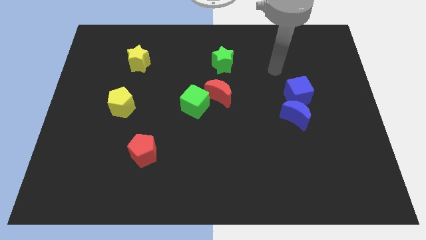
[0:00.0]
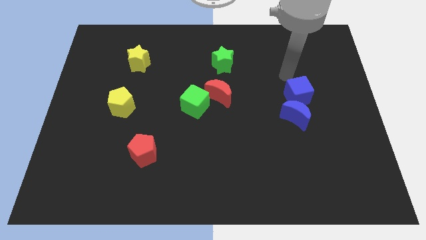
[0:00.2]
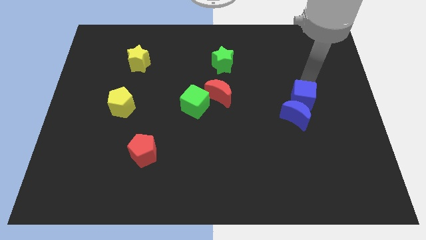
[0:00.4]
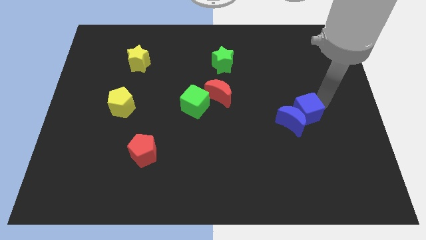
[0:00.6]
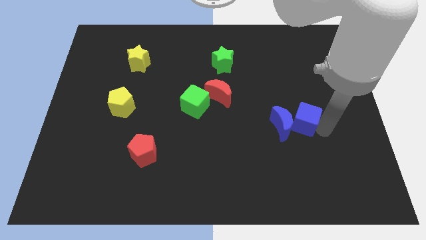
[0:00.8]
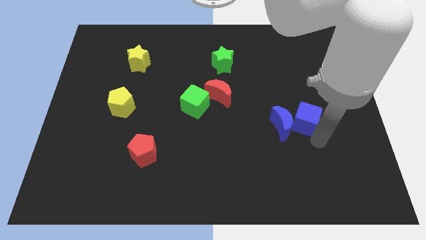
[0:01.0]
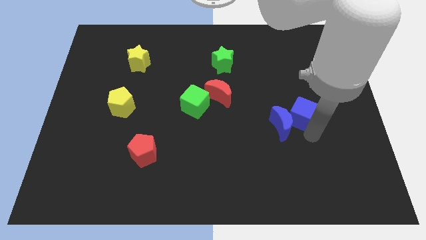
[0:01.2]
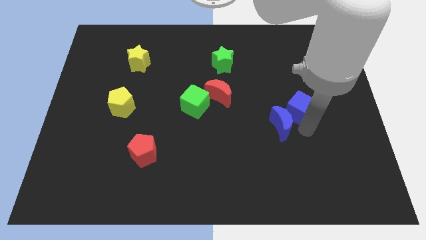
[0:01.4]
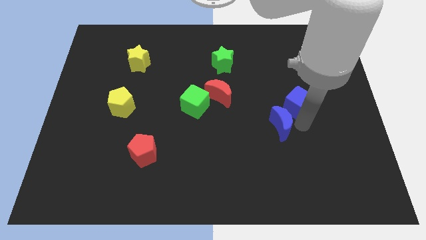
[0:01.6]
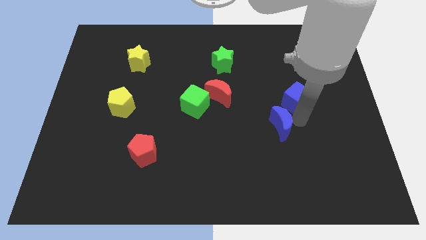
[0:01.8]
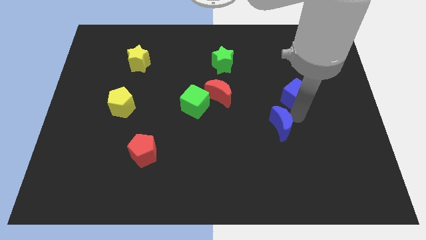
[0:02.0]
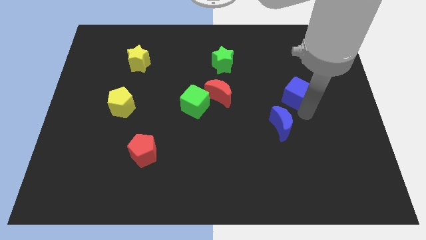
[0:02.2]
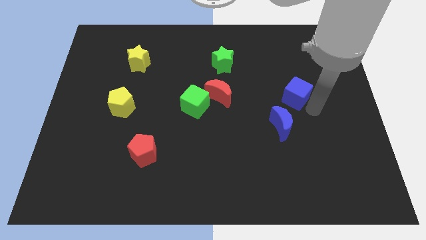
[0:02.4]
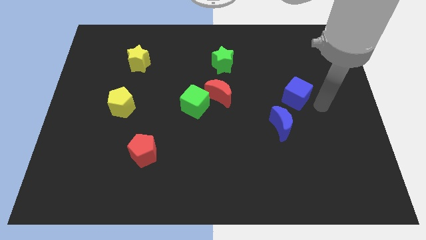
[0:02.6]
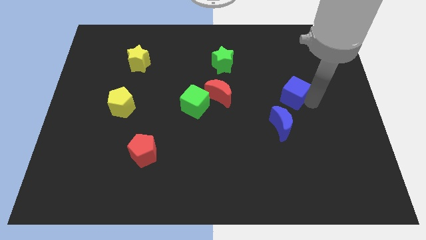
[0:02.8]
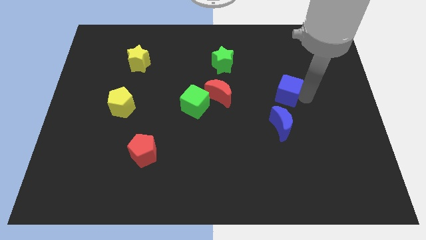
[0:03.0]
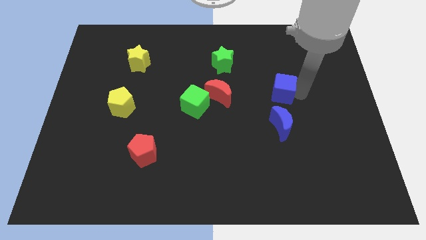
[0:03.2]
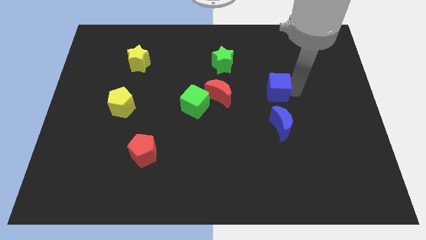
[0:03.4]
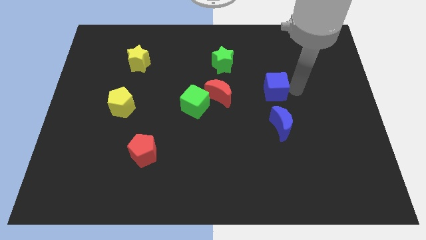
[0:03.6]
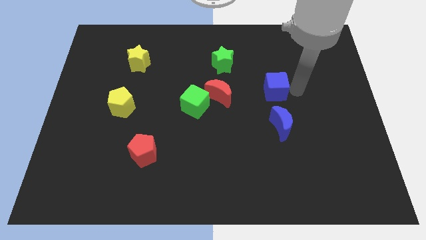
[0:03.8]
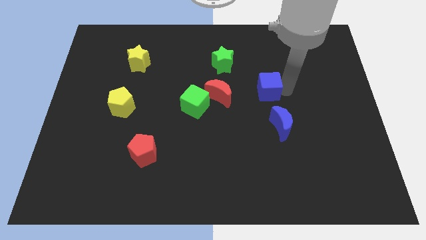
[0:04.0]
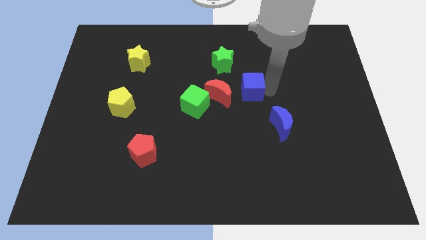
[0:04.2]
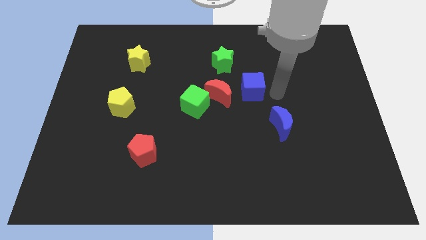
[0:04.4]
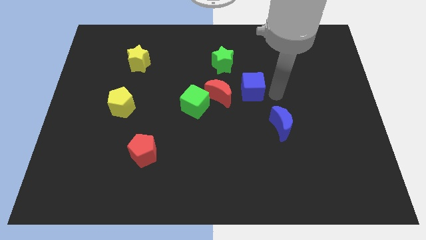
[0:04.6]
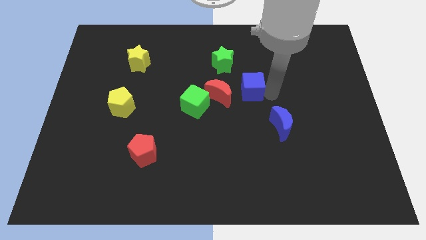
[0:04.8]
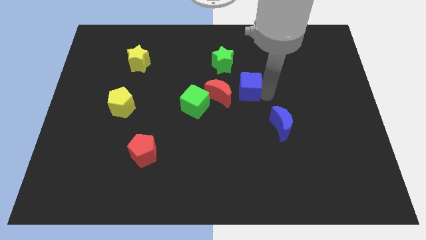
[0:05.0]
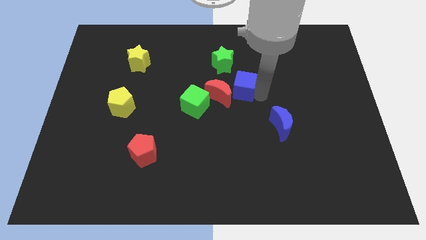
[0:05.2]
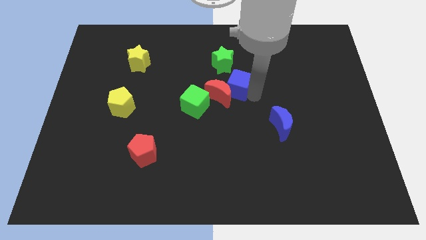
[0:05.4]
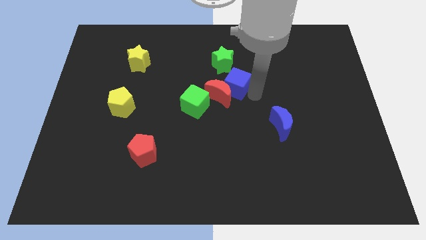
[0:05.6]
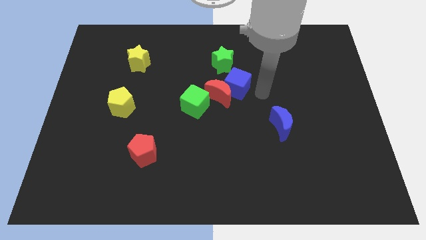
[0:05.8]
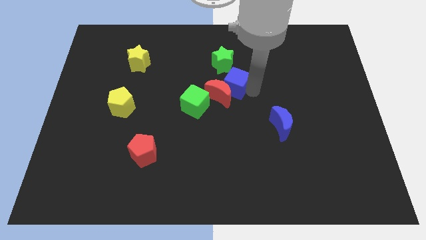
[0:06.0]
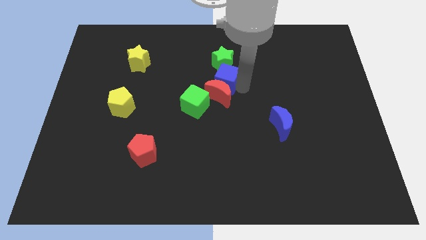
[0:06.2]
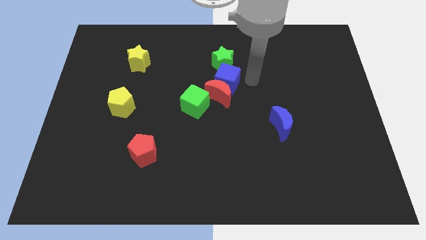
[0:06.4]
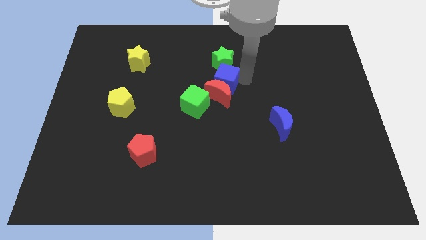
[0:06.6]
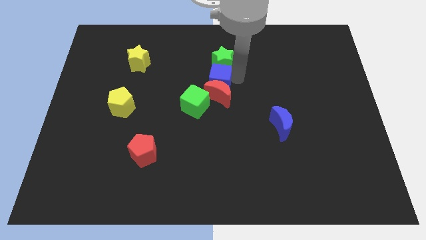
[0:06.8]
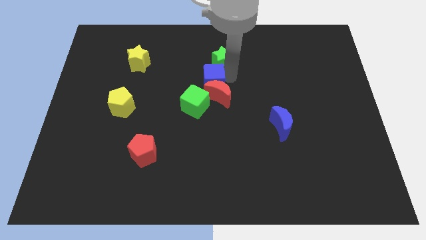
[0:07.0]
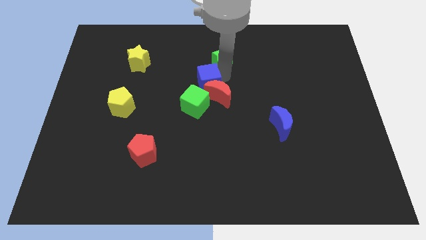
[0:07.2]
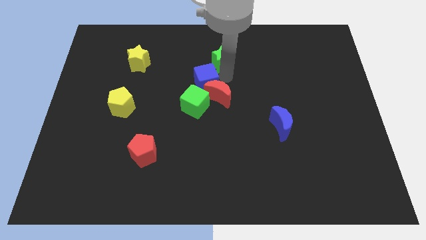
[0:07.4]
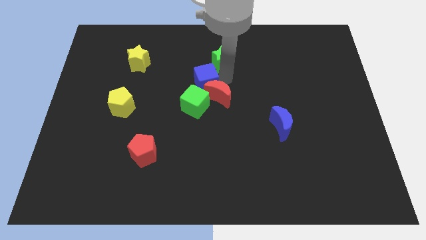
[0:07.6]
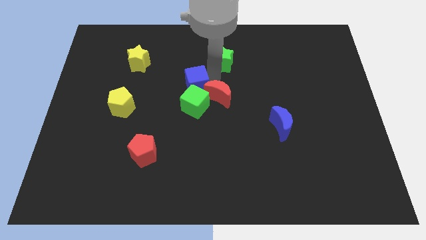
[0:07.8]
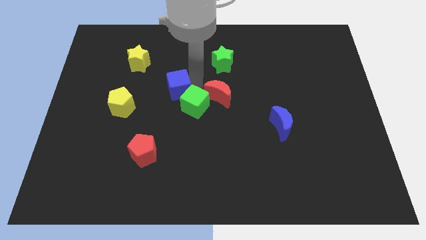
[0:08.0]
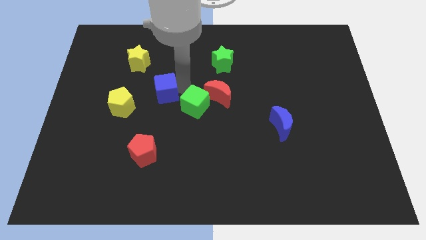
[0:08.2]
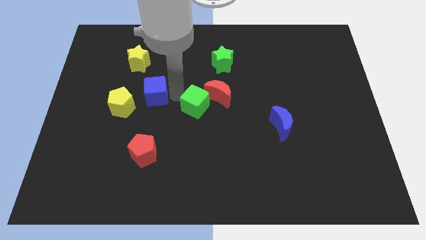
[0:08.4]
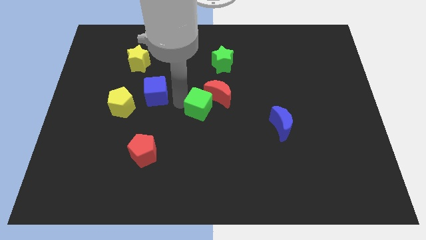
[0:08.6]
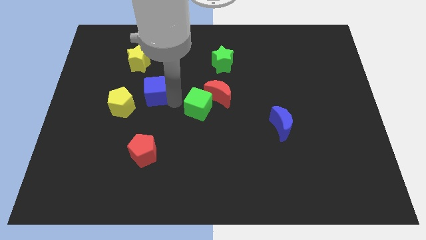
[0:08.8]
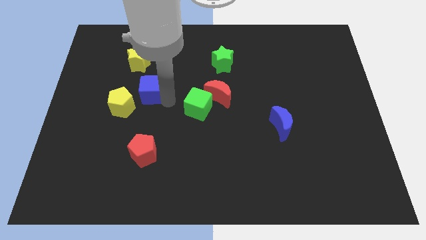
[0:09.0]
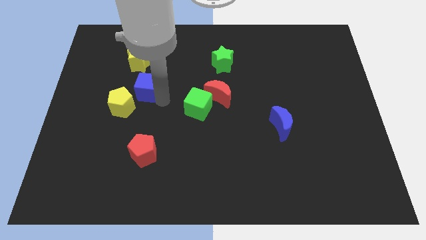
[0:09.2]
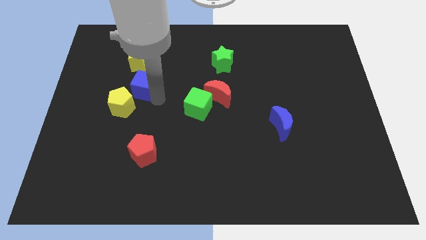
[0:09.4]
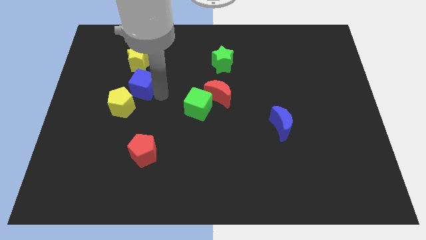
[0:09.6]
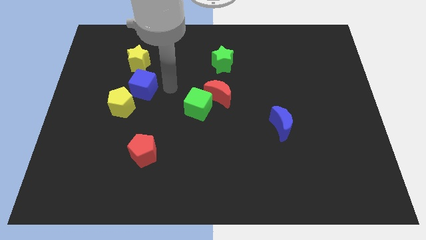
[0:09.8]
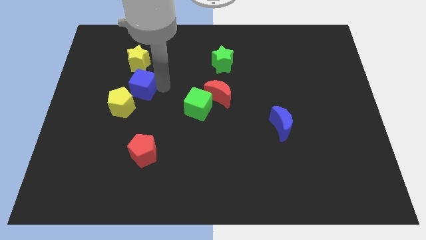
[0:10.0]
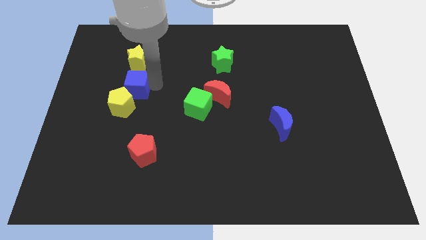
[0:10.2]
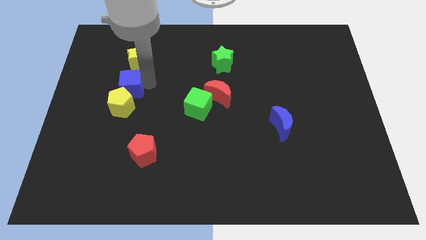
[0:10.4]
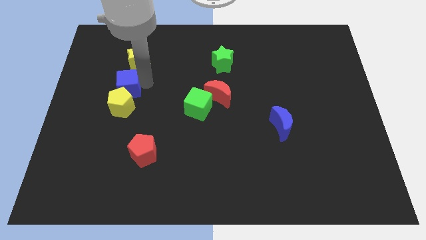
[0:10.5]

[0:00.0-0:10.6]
move the blue cube to the top left side of the yellow pentagon

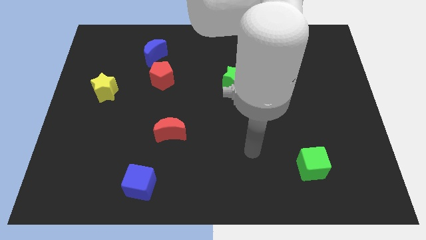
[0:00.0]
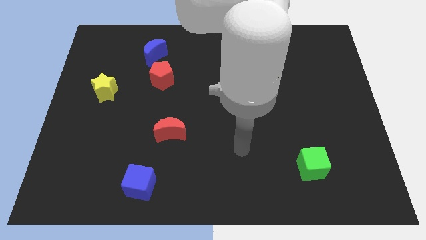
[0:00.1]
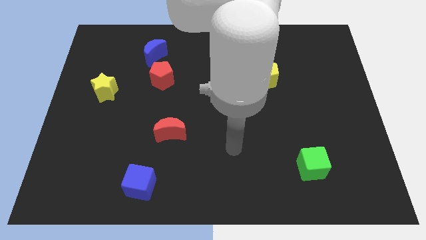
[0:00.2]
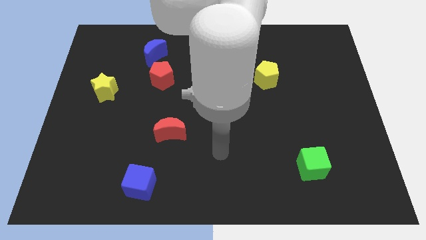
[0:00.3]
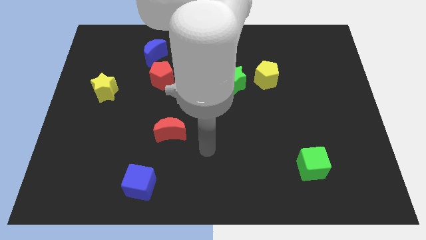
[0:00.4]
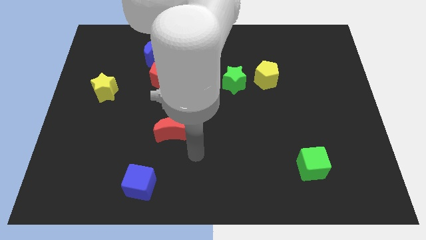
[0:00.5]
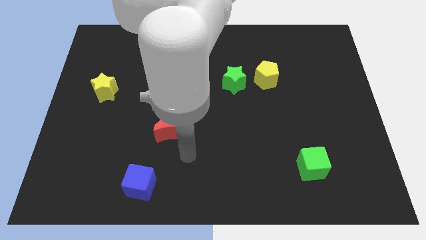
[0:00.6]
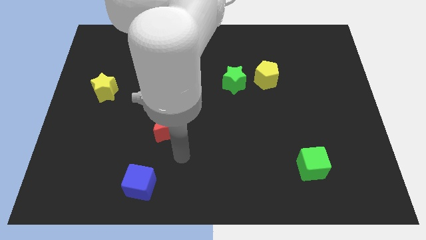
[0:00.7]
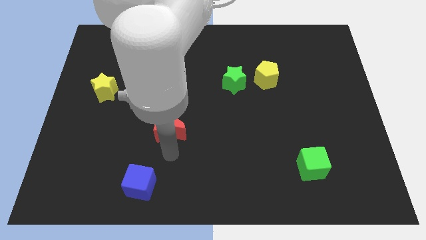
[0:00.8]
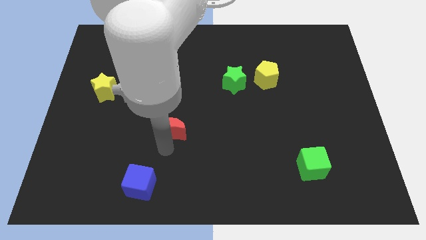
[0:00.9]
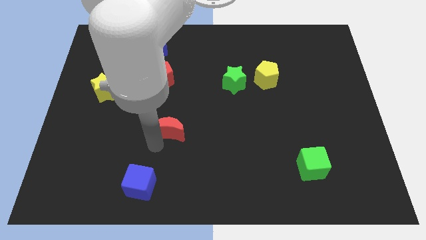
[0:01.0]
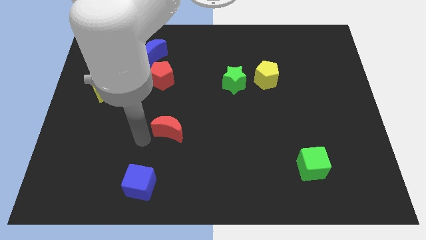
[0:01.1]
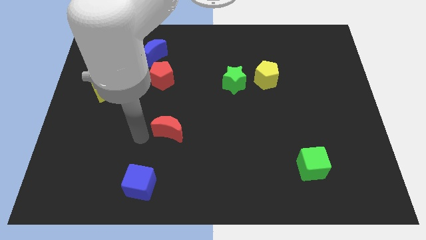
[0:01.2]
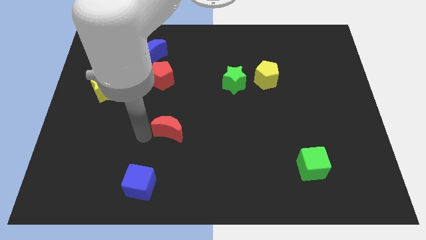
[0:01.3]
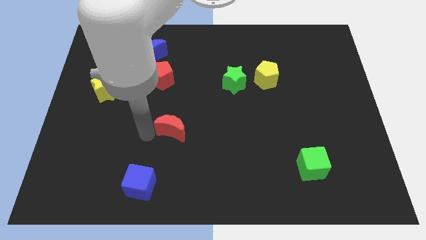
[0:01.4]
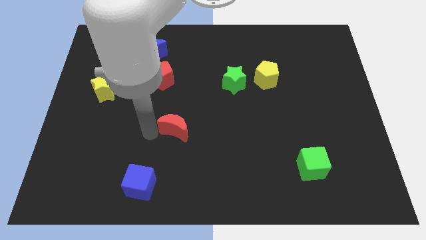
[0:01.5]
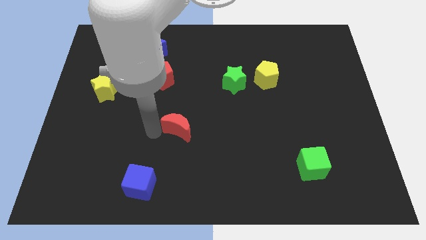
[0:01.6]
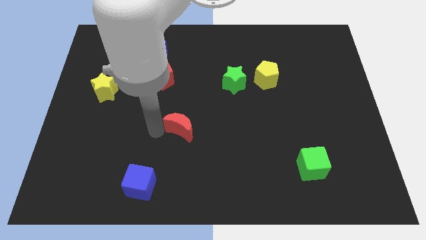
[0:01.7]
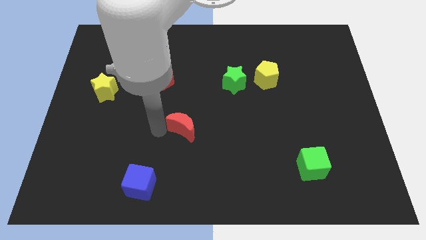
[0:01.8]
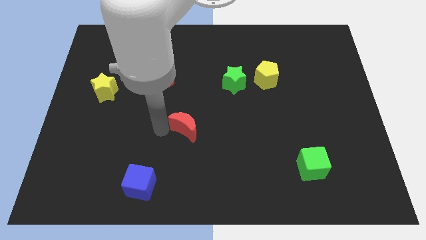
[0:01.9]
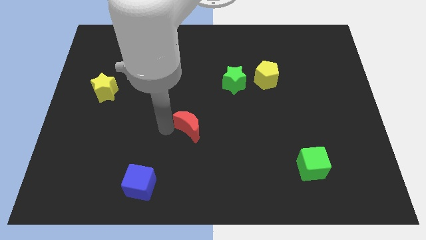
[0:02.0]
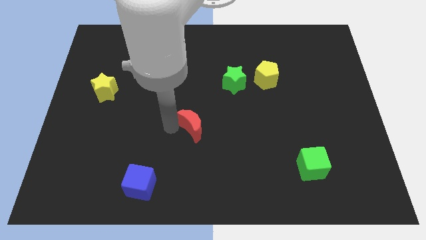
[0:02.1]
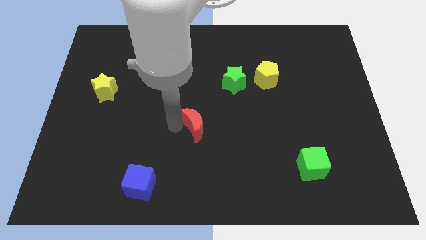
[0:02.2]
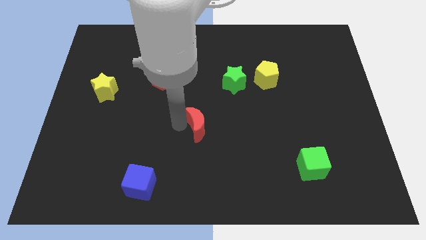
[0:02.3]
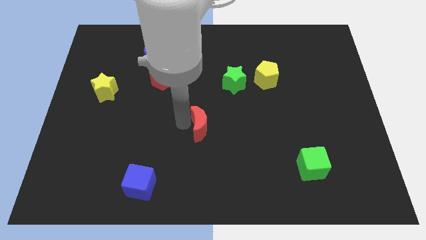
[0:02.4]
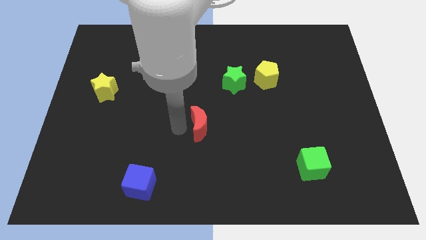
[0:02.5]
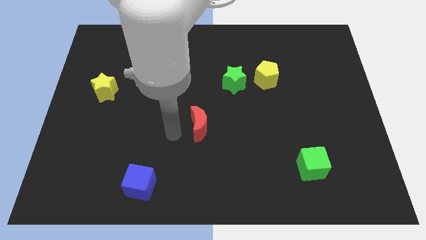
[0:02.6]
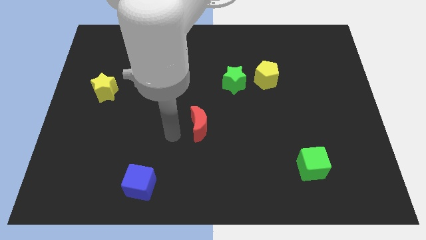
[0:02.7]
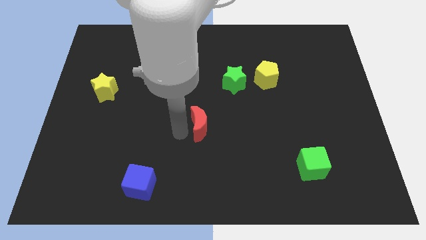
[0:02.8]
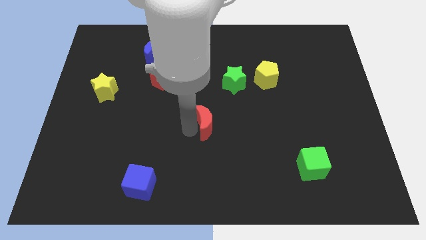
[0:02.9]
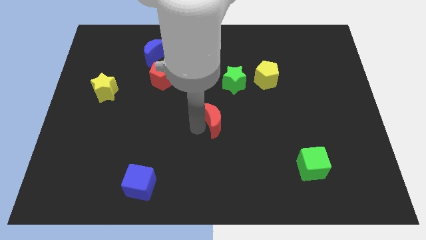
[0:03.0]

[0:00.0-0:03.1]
put the red moon below the green star
